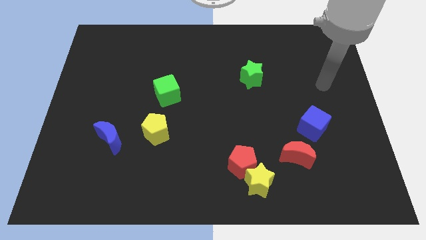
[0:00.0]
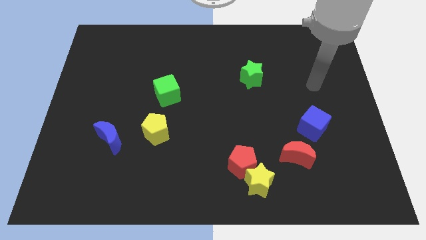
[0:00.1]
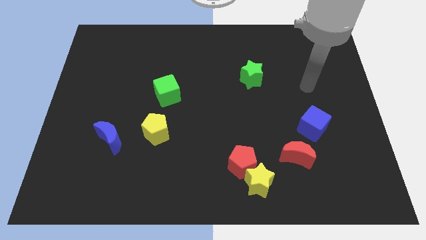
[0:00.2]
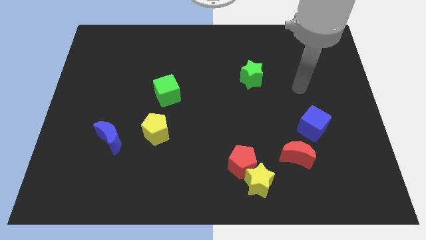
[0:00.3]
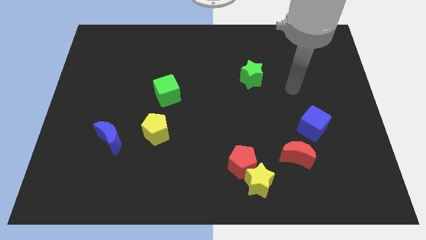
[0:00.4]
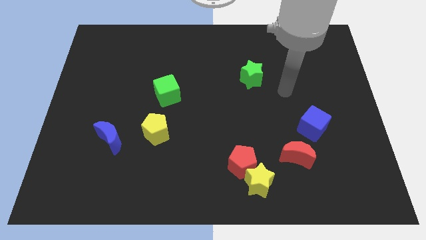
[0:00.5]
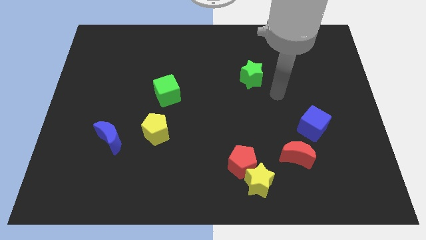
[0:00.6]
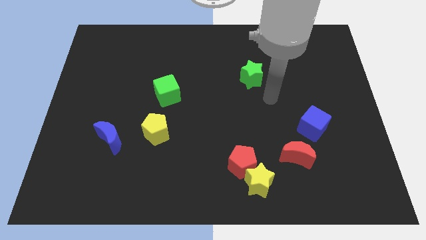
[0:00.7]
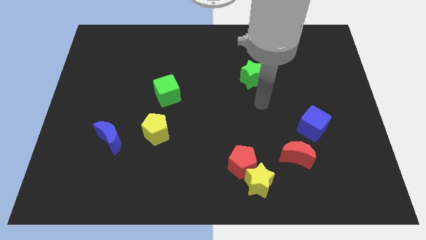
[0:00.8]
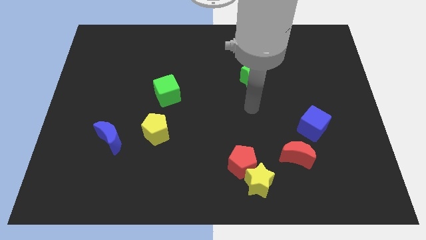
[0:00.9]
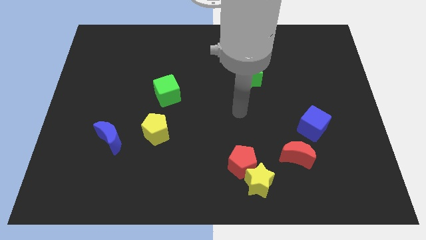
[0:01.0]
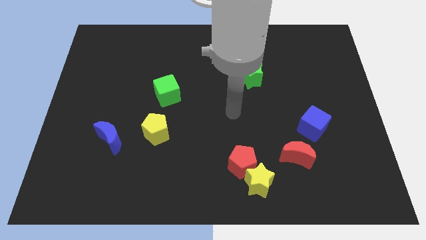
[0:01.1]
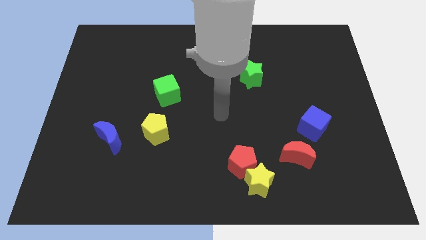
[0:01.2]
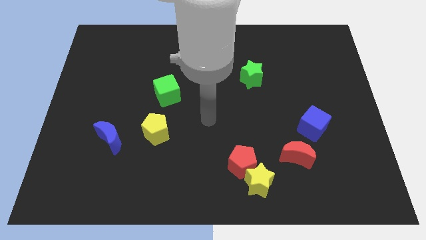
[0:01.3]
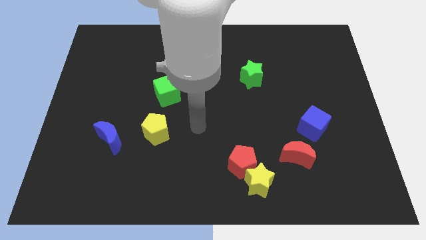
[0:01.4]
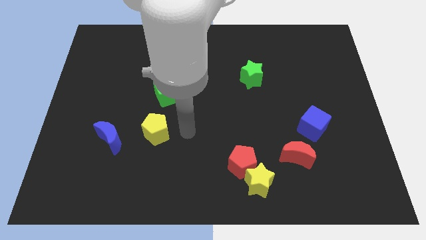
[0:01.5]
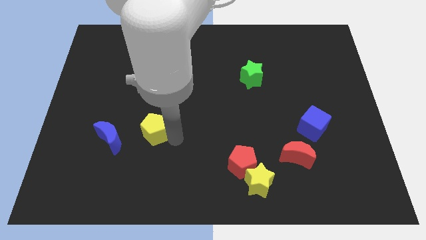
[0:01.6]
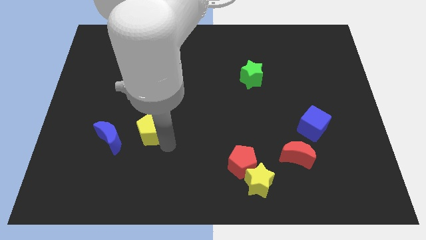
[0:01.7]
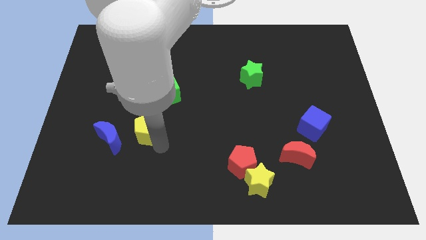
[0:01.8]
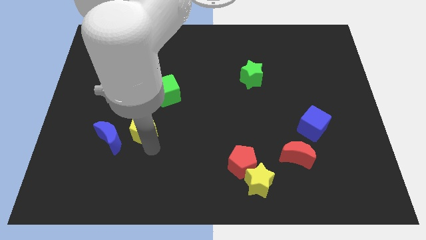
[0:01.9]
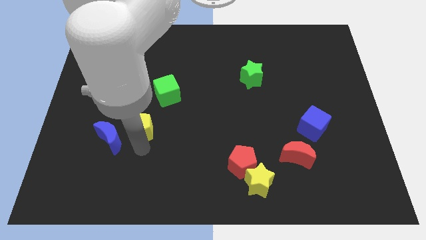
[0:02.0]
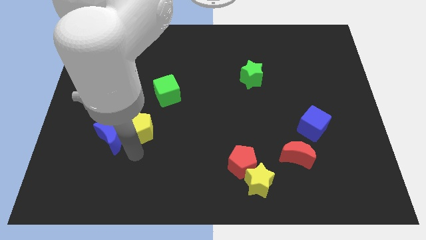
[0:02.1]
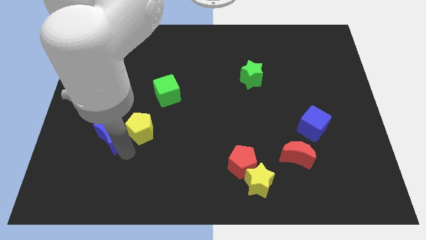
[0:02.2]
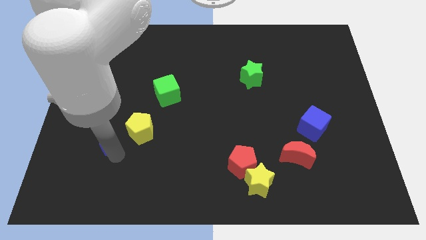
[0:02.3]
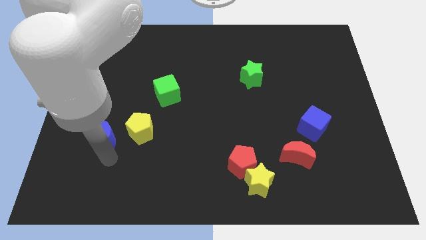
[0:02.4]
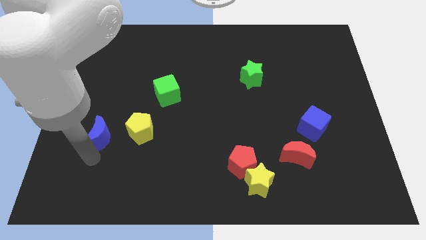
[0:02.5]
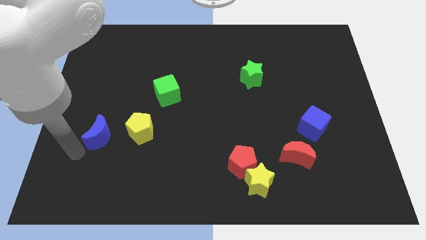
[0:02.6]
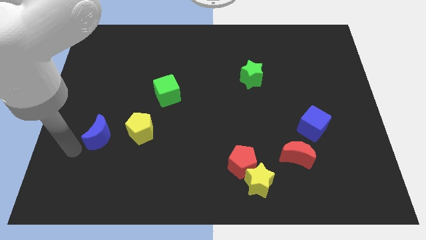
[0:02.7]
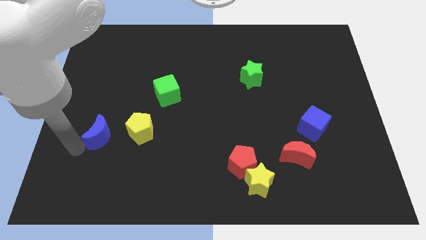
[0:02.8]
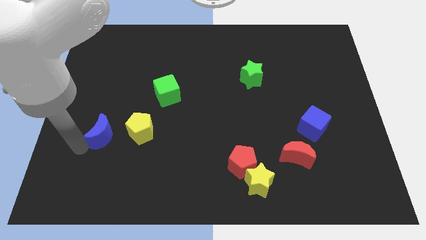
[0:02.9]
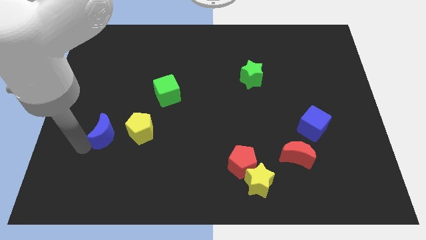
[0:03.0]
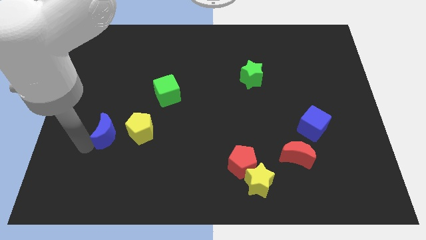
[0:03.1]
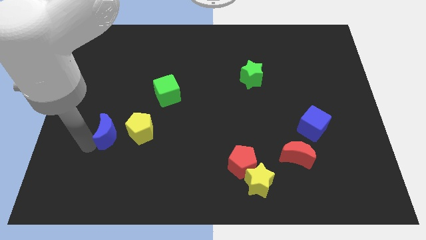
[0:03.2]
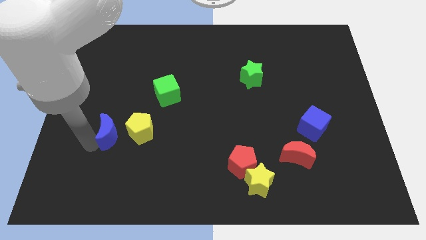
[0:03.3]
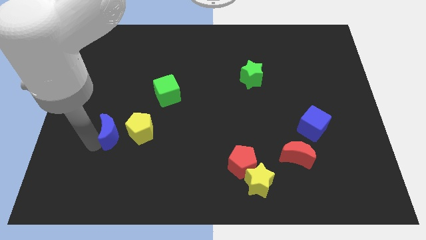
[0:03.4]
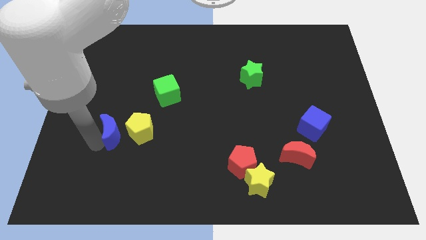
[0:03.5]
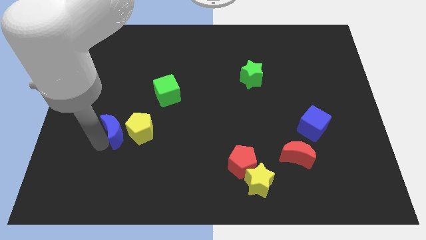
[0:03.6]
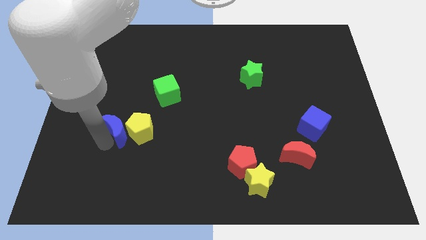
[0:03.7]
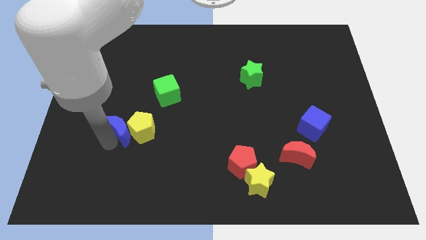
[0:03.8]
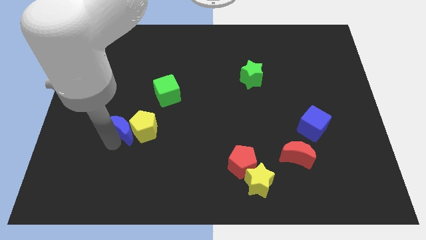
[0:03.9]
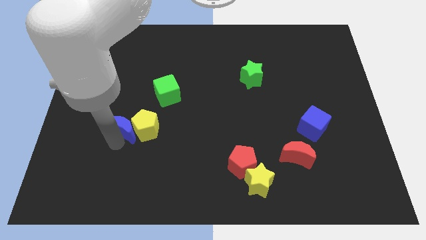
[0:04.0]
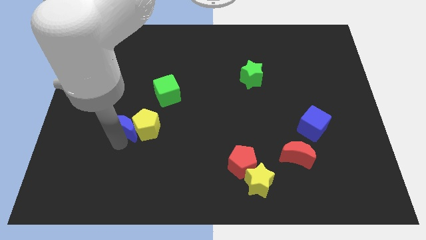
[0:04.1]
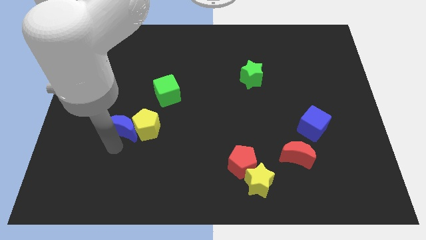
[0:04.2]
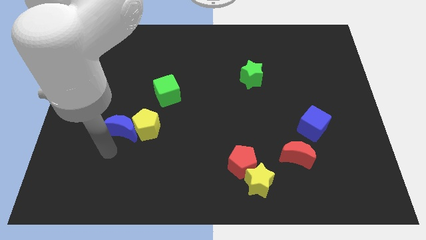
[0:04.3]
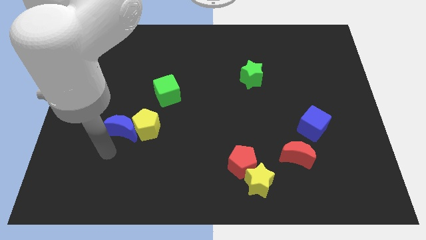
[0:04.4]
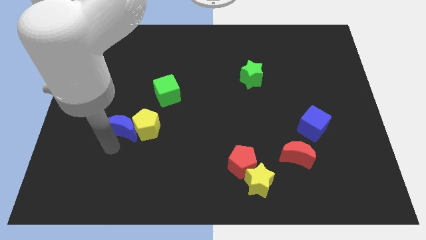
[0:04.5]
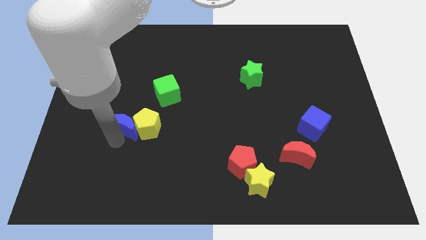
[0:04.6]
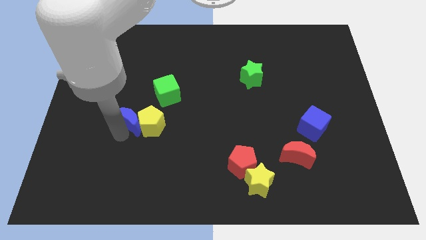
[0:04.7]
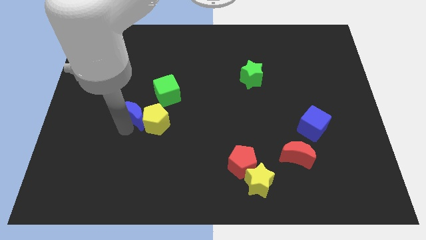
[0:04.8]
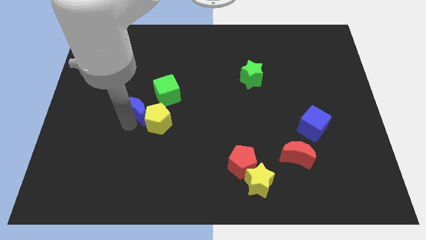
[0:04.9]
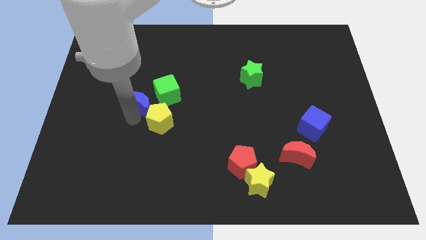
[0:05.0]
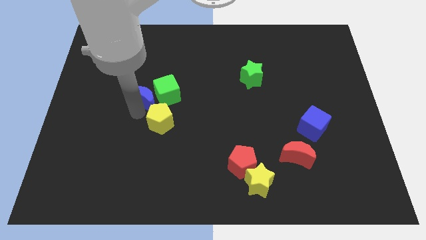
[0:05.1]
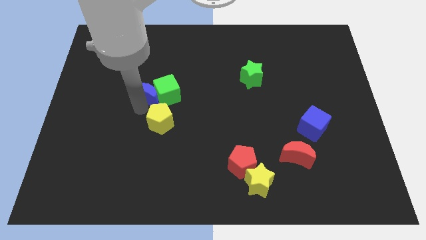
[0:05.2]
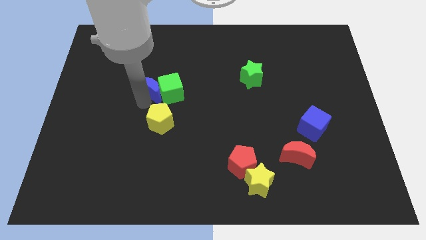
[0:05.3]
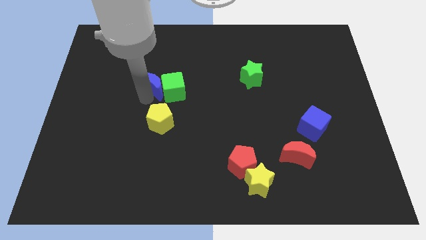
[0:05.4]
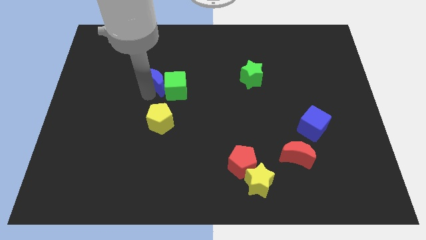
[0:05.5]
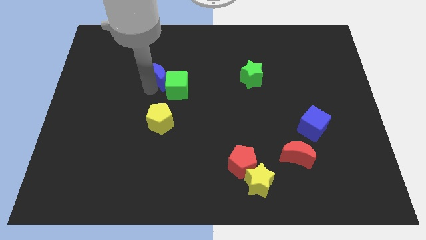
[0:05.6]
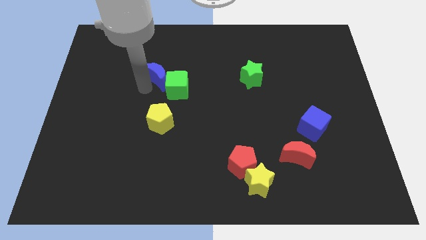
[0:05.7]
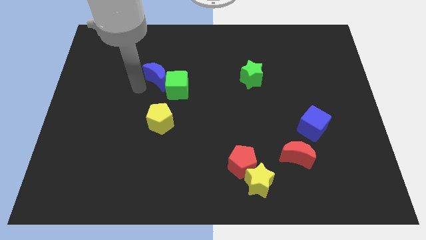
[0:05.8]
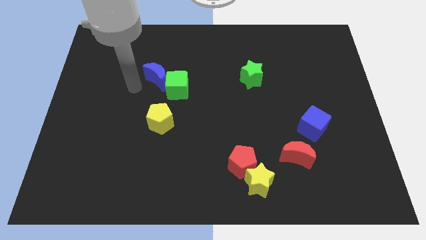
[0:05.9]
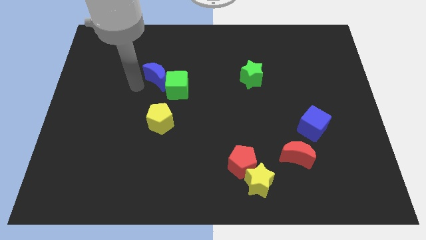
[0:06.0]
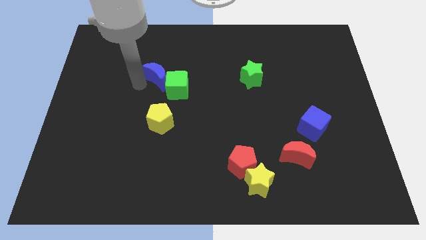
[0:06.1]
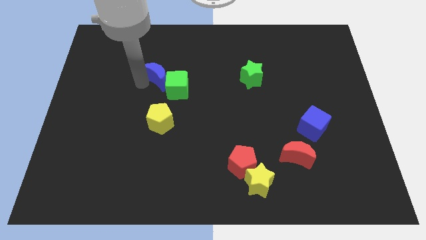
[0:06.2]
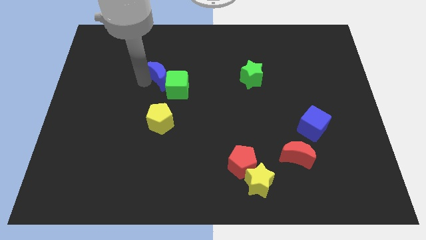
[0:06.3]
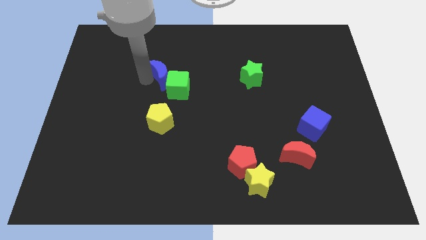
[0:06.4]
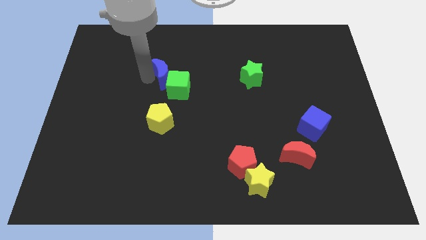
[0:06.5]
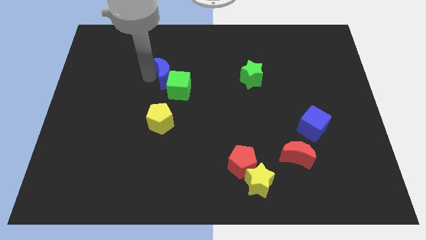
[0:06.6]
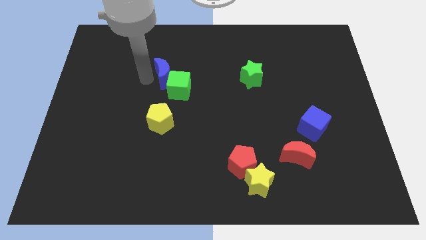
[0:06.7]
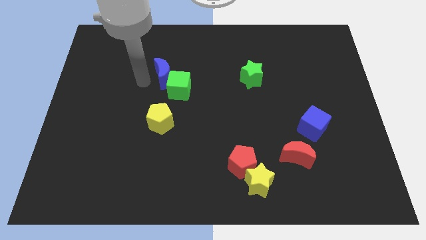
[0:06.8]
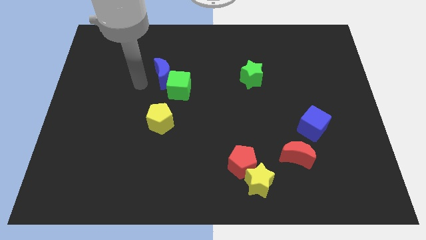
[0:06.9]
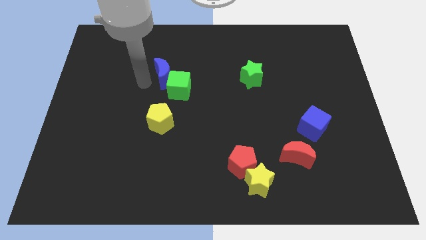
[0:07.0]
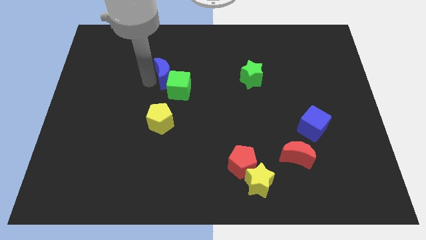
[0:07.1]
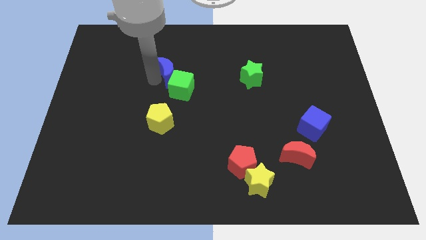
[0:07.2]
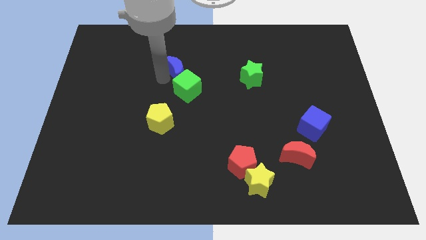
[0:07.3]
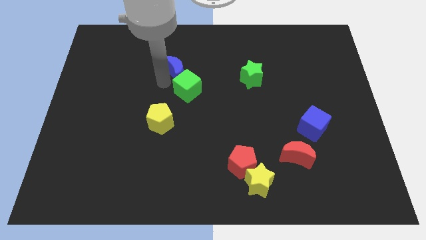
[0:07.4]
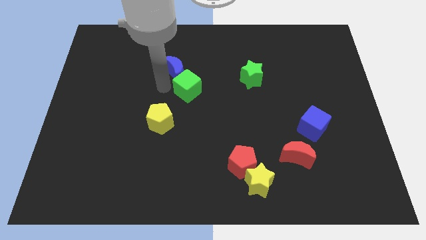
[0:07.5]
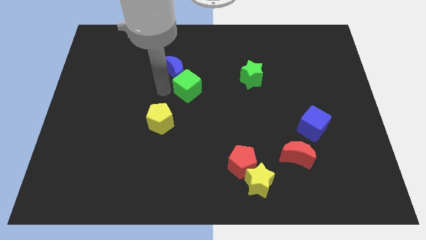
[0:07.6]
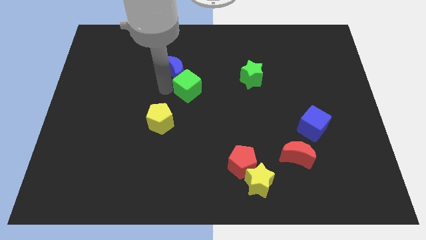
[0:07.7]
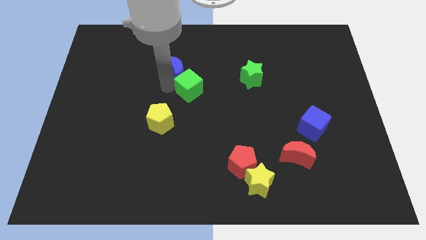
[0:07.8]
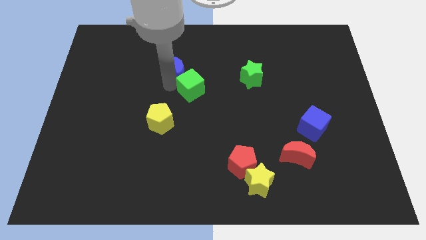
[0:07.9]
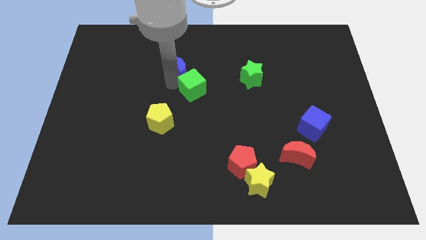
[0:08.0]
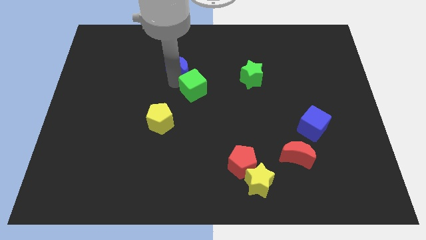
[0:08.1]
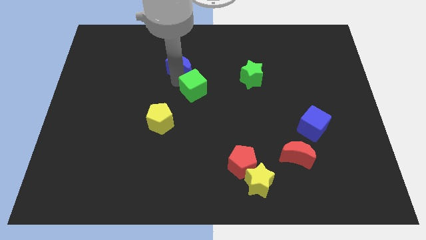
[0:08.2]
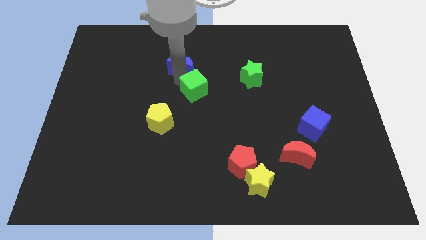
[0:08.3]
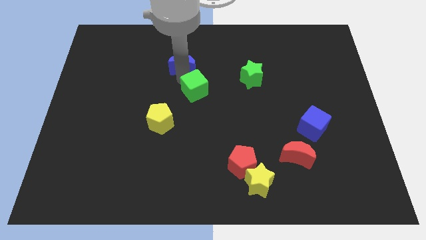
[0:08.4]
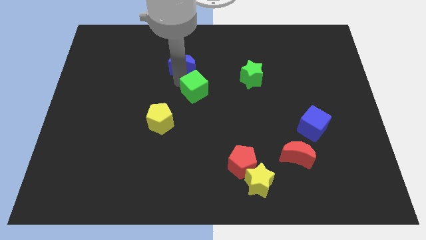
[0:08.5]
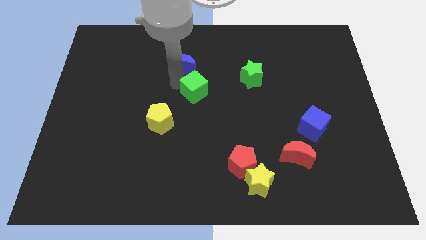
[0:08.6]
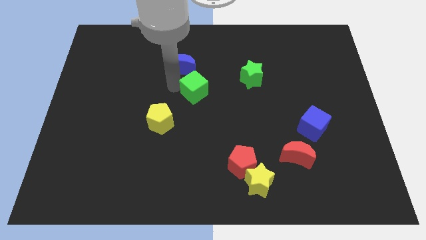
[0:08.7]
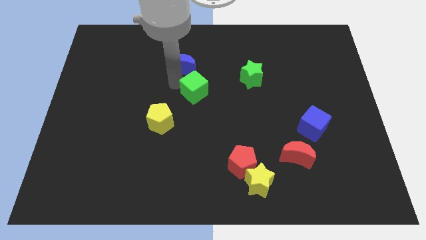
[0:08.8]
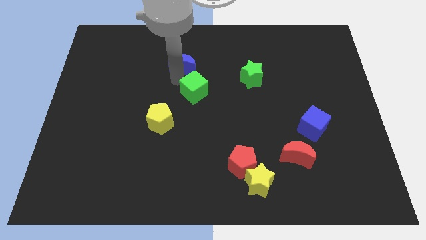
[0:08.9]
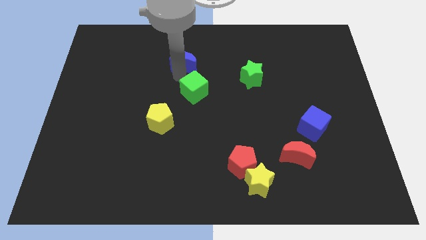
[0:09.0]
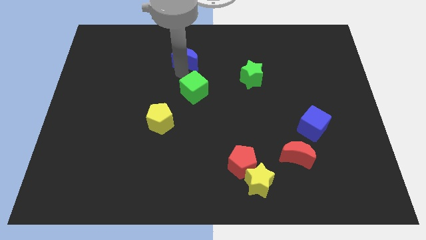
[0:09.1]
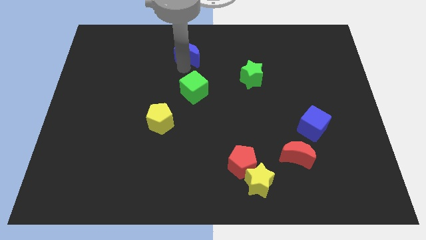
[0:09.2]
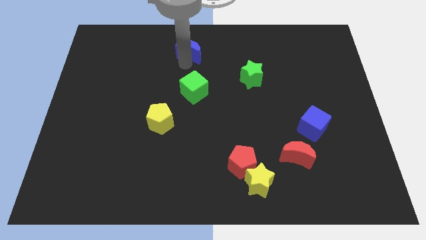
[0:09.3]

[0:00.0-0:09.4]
move the blue moon to the towards your base
